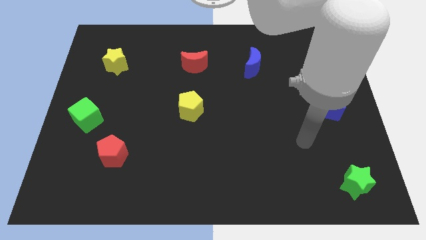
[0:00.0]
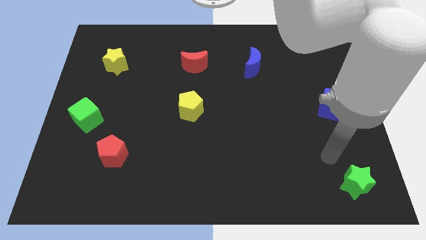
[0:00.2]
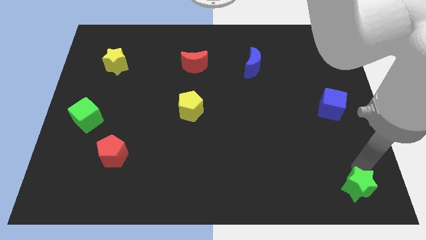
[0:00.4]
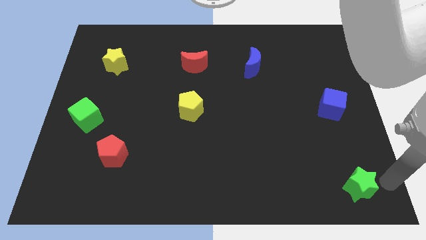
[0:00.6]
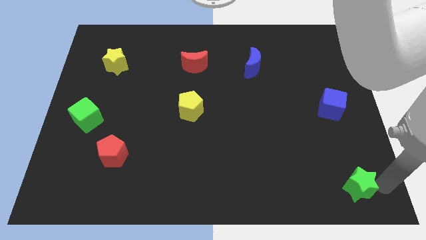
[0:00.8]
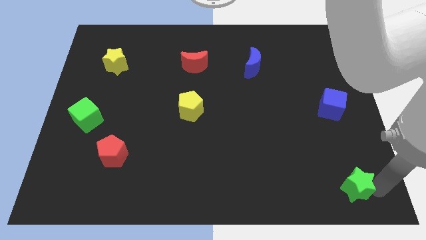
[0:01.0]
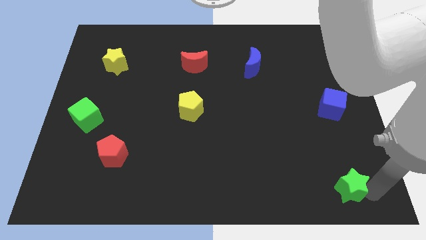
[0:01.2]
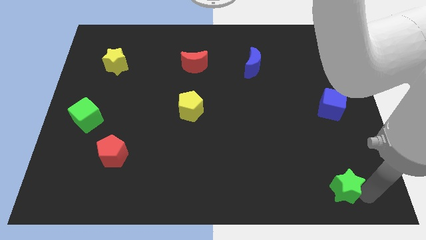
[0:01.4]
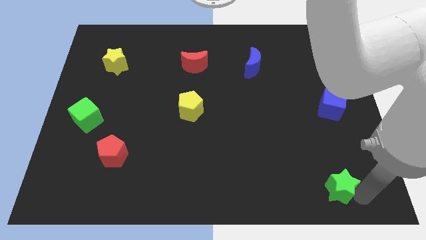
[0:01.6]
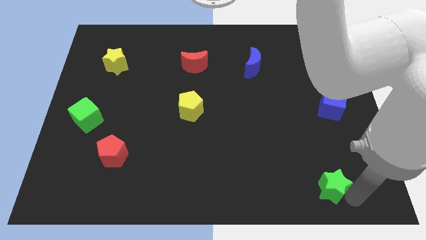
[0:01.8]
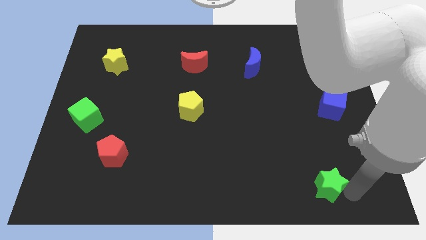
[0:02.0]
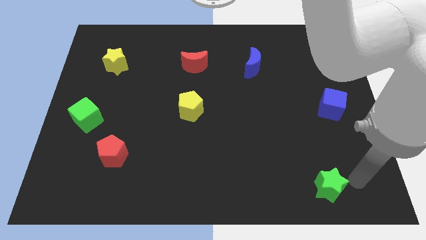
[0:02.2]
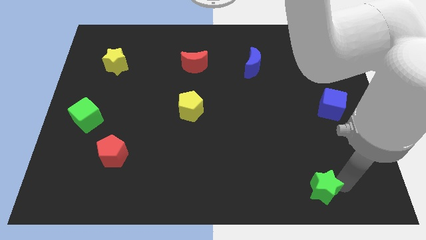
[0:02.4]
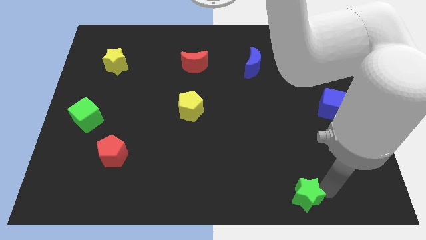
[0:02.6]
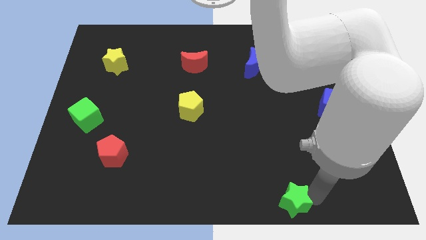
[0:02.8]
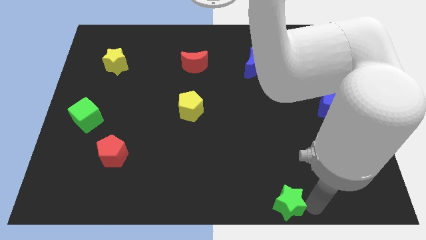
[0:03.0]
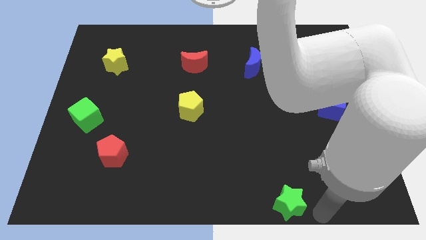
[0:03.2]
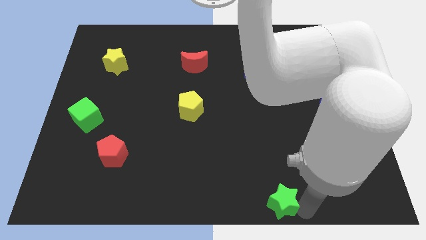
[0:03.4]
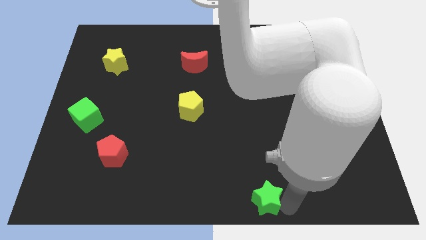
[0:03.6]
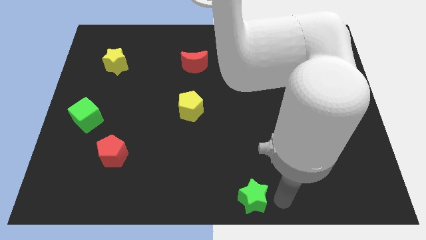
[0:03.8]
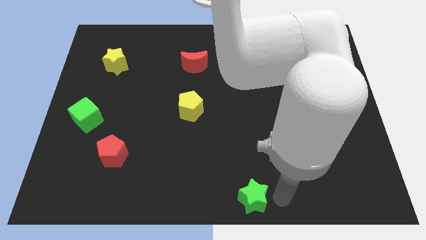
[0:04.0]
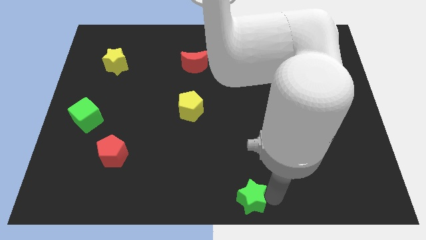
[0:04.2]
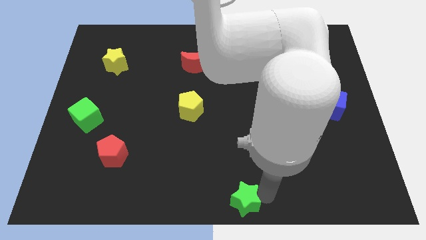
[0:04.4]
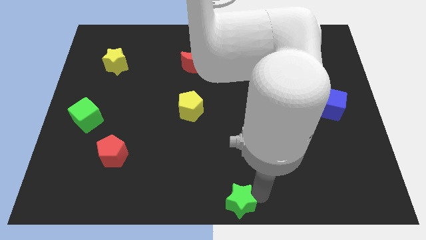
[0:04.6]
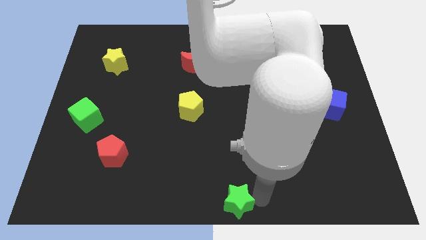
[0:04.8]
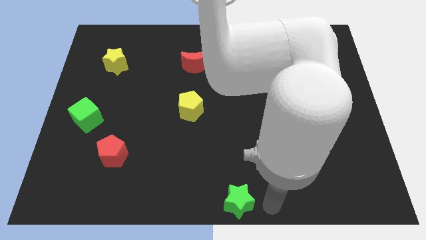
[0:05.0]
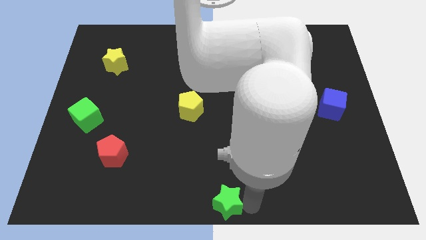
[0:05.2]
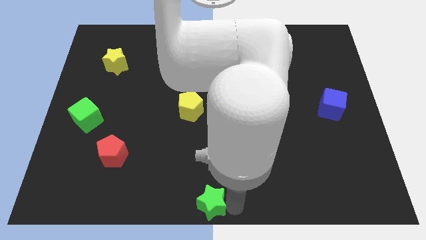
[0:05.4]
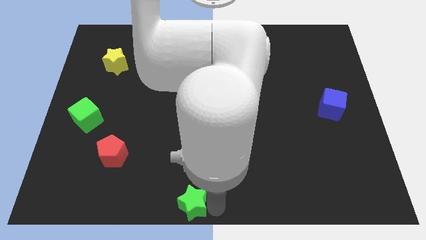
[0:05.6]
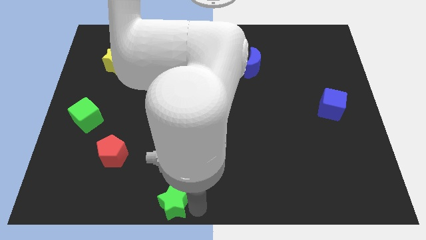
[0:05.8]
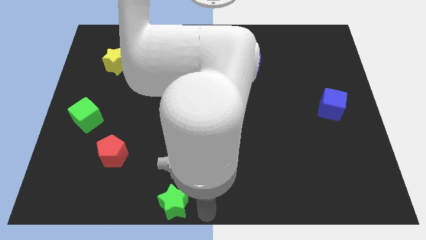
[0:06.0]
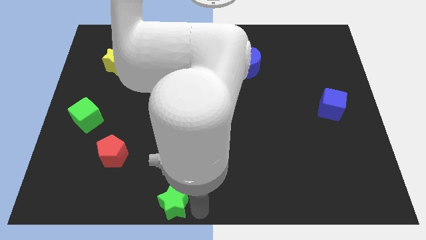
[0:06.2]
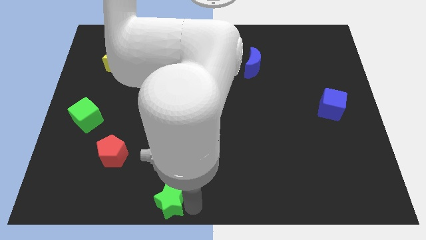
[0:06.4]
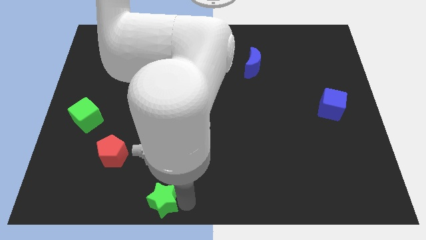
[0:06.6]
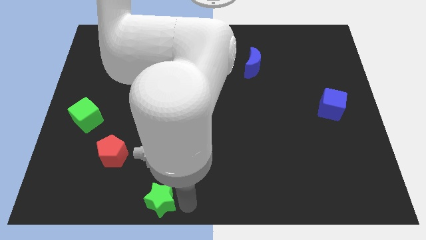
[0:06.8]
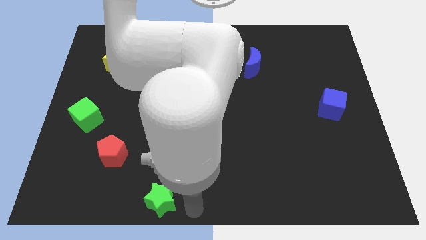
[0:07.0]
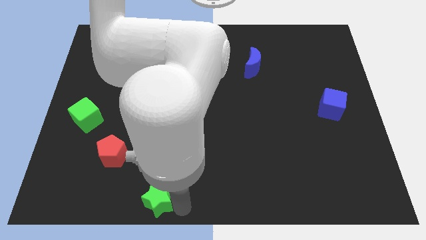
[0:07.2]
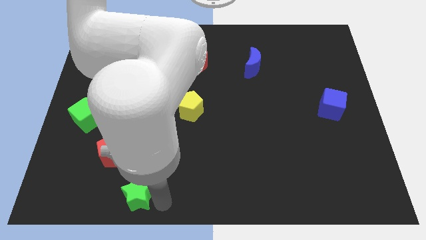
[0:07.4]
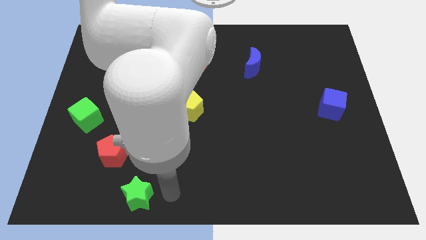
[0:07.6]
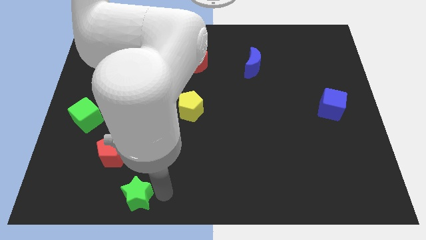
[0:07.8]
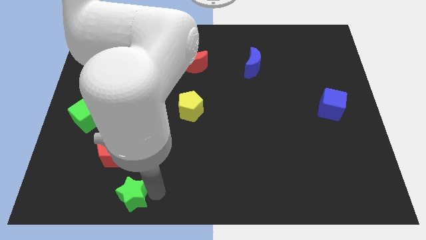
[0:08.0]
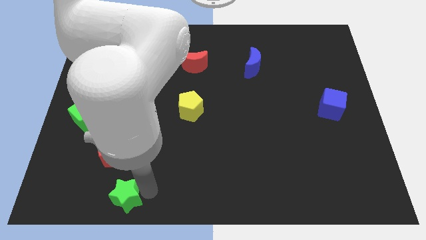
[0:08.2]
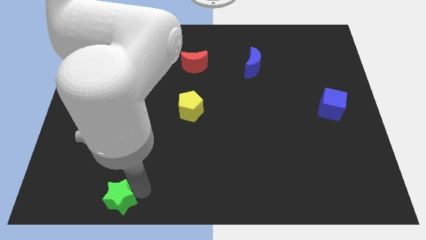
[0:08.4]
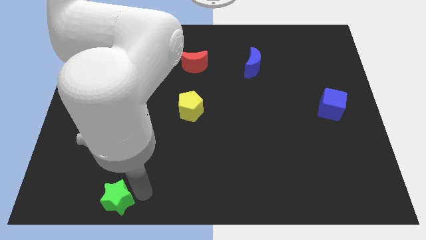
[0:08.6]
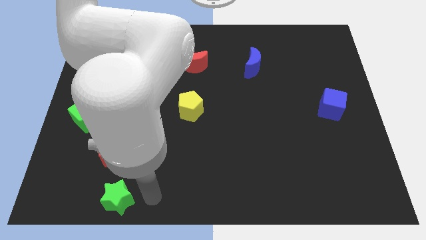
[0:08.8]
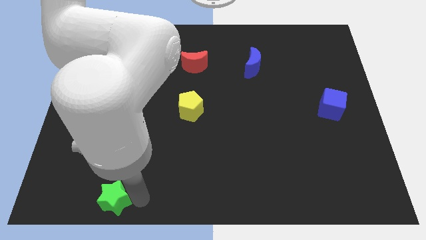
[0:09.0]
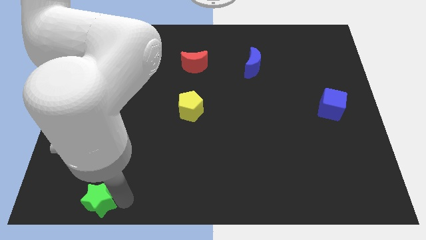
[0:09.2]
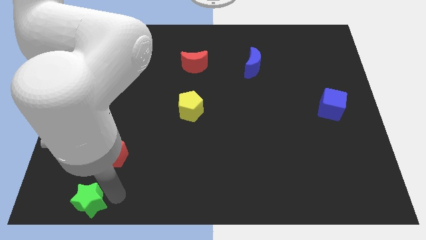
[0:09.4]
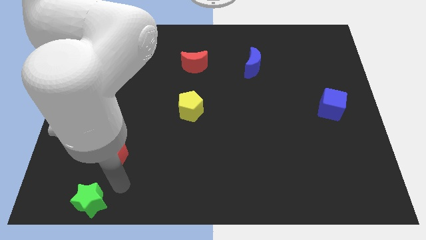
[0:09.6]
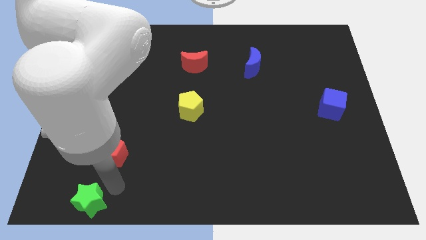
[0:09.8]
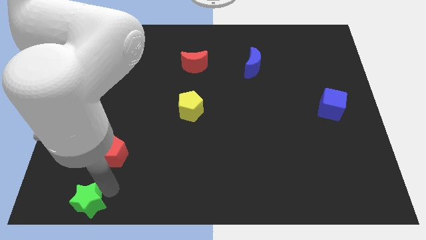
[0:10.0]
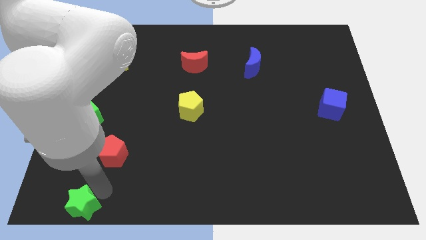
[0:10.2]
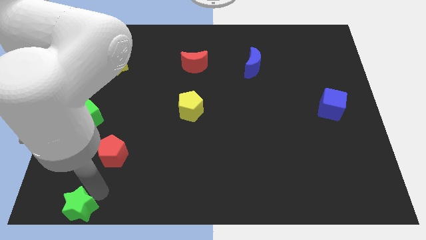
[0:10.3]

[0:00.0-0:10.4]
move the green star to the bottom left corner

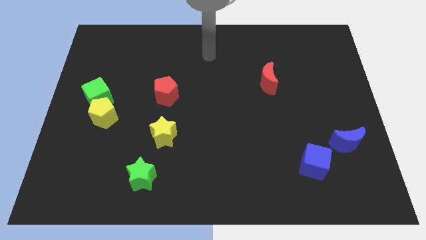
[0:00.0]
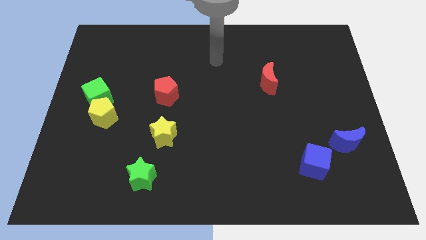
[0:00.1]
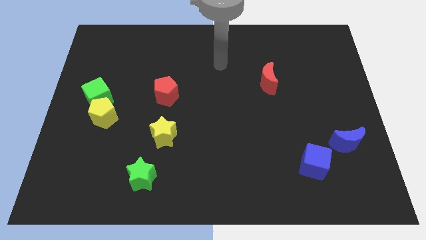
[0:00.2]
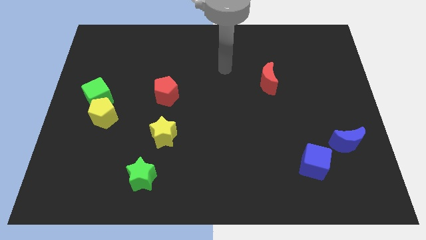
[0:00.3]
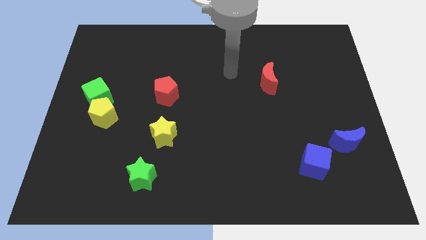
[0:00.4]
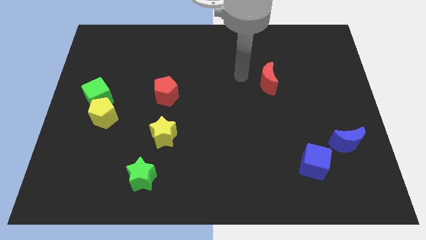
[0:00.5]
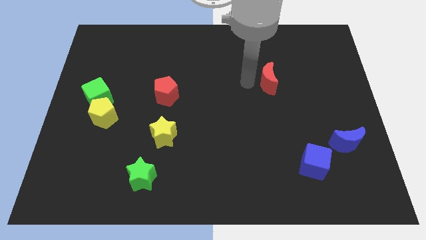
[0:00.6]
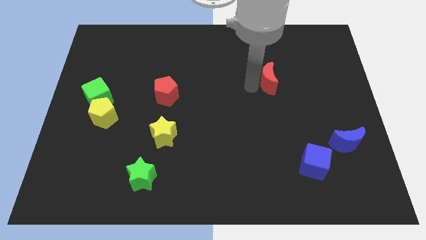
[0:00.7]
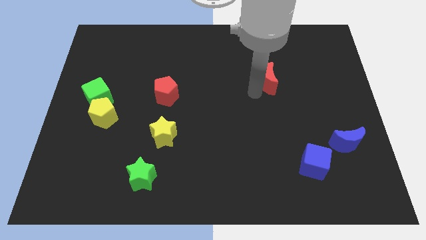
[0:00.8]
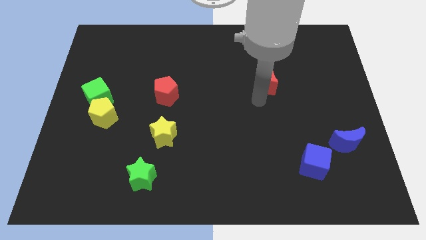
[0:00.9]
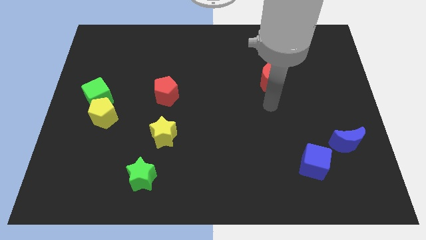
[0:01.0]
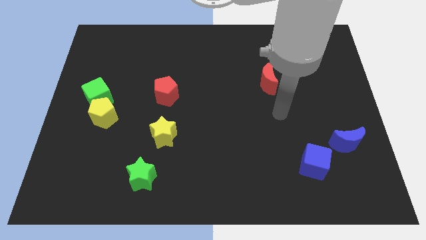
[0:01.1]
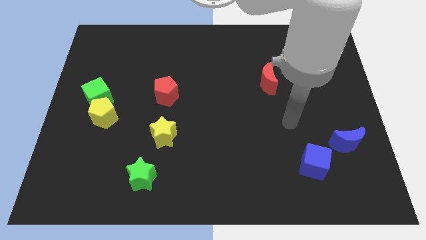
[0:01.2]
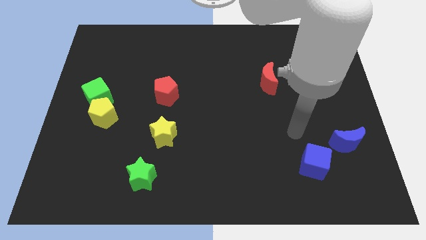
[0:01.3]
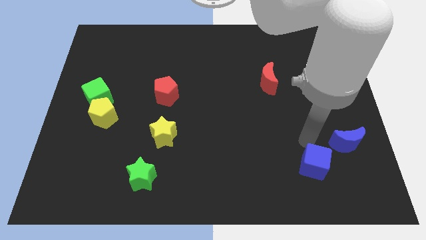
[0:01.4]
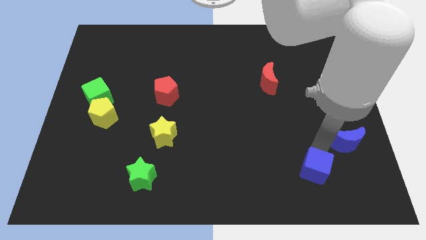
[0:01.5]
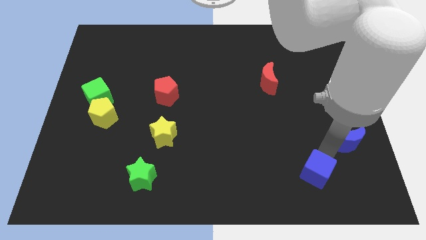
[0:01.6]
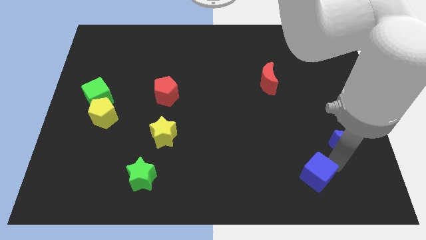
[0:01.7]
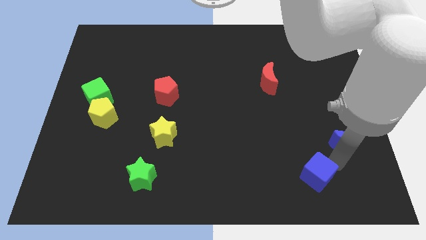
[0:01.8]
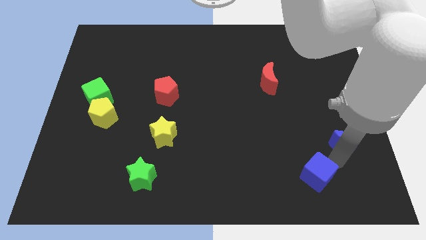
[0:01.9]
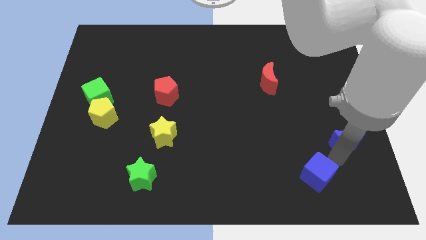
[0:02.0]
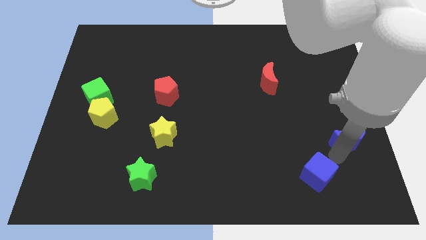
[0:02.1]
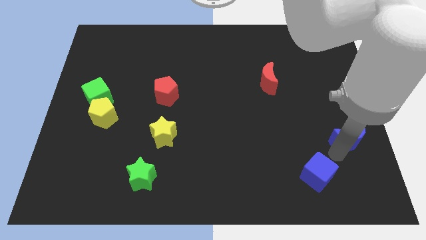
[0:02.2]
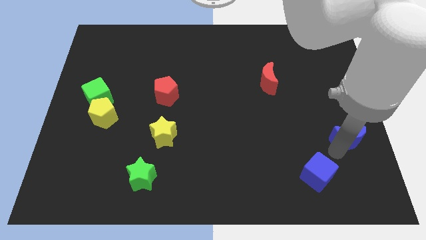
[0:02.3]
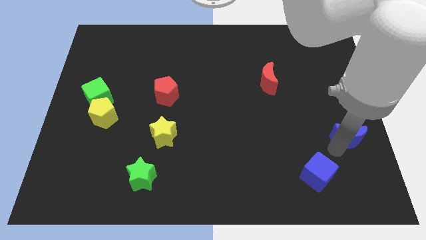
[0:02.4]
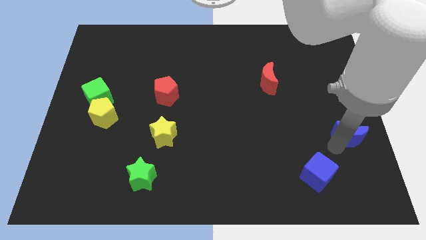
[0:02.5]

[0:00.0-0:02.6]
push the blue moon to the right side

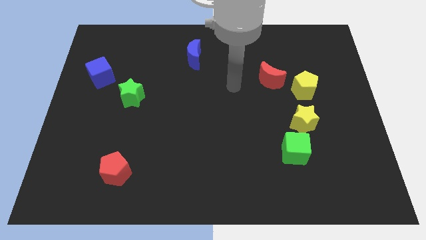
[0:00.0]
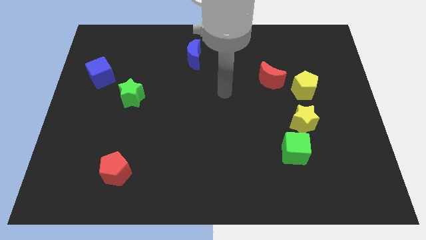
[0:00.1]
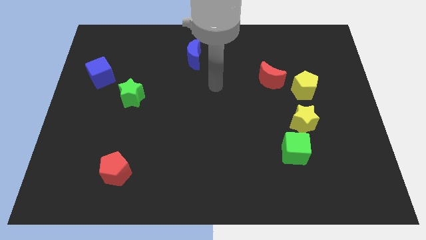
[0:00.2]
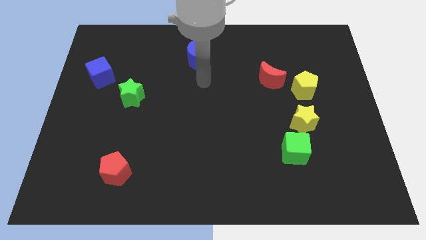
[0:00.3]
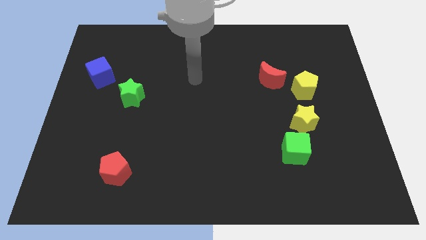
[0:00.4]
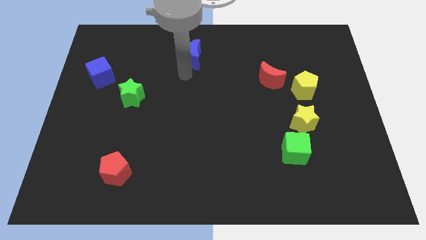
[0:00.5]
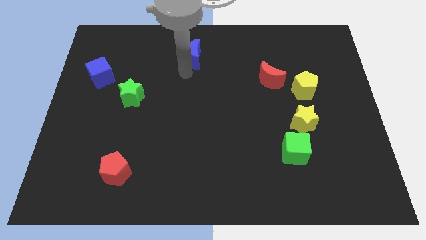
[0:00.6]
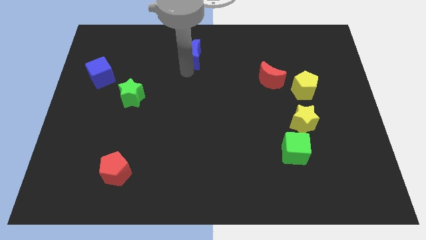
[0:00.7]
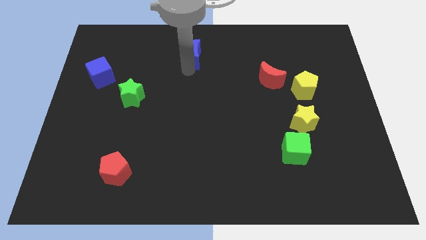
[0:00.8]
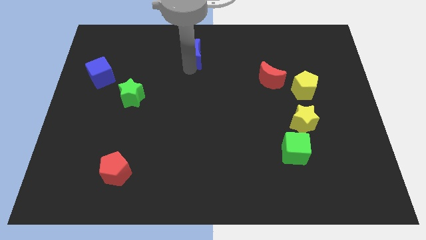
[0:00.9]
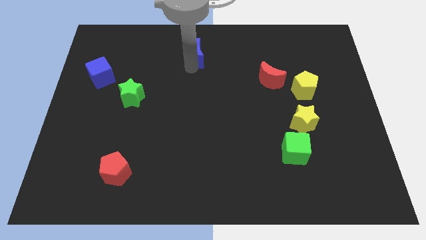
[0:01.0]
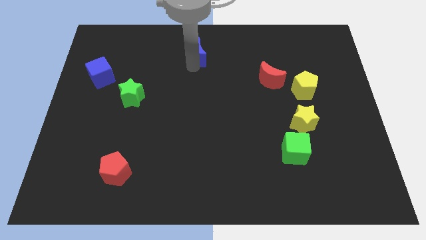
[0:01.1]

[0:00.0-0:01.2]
put the blue moon to the top
